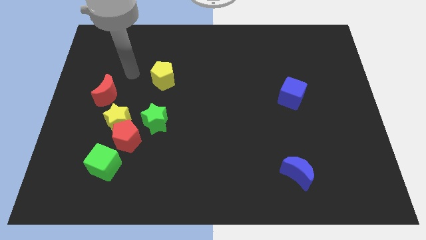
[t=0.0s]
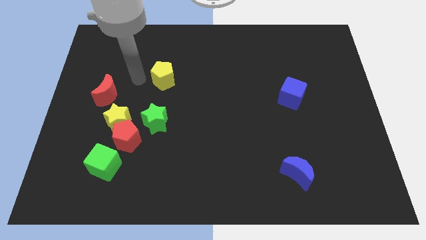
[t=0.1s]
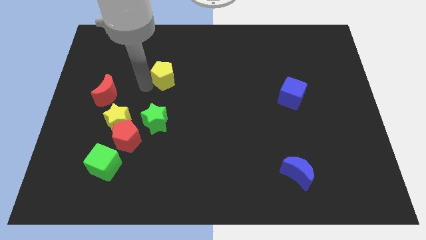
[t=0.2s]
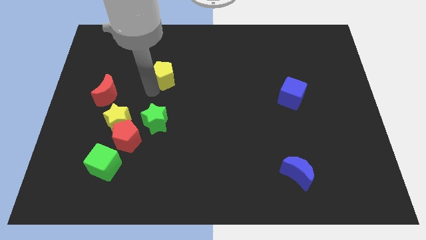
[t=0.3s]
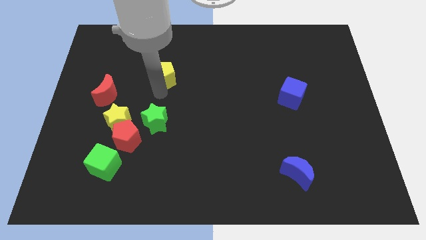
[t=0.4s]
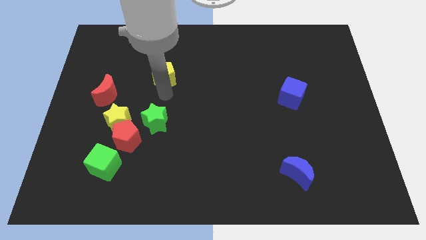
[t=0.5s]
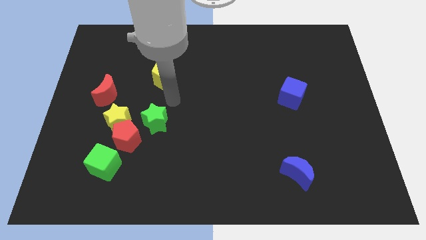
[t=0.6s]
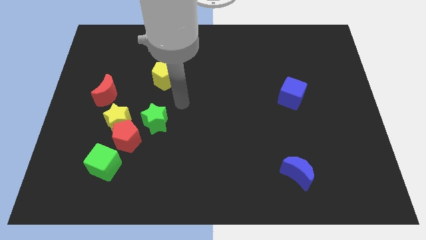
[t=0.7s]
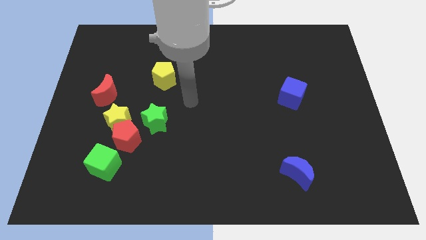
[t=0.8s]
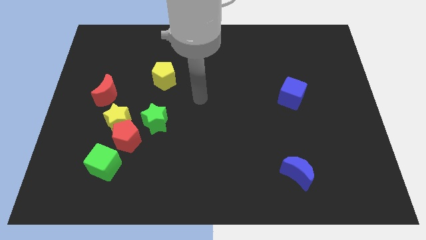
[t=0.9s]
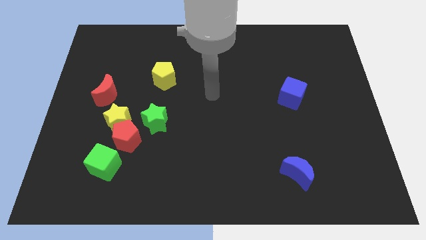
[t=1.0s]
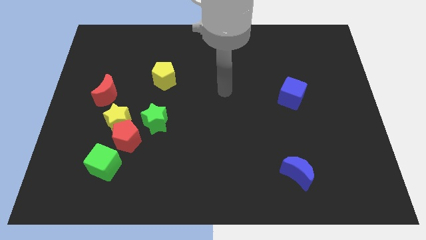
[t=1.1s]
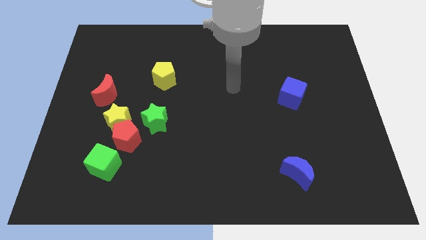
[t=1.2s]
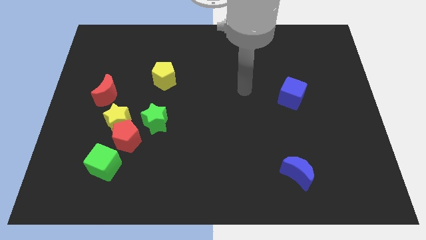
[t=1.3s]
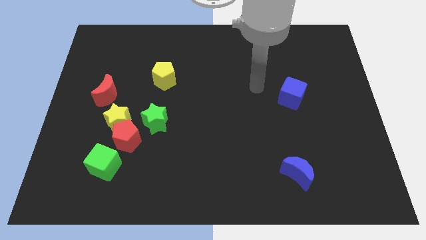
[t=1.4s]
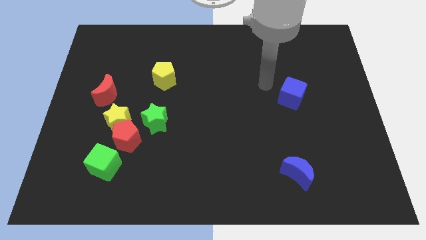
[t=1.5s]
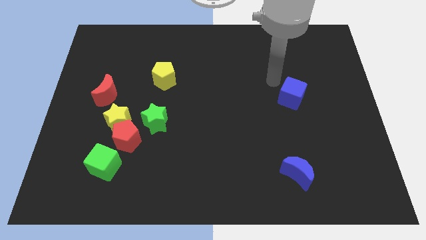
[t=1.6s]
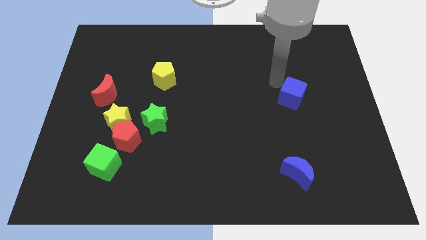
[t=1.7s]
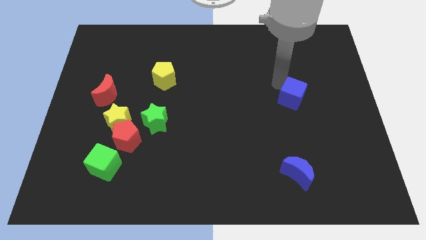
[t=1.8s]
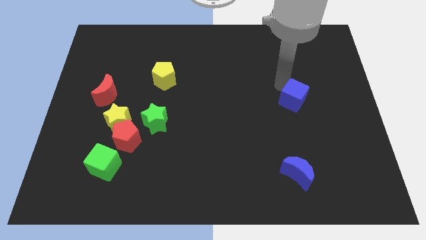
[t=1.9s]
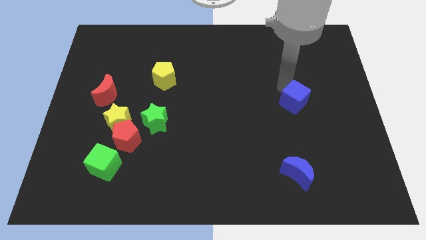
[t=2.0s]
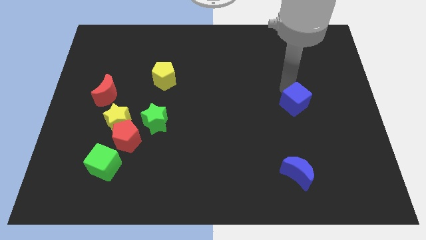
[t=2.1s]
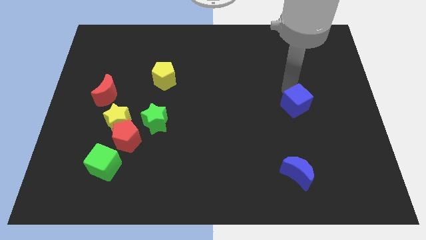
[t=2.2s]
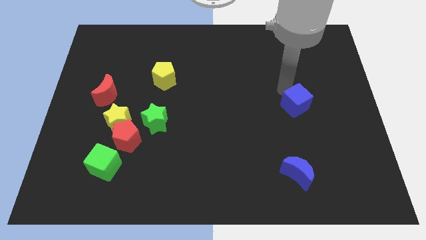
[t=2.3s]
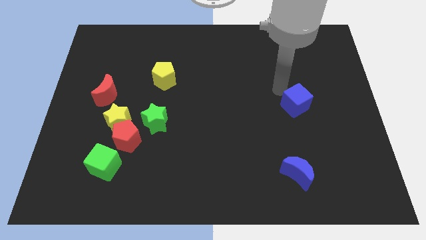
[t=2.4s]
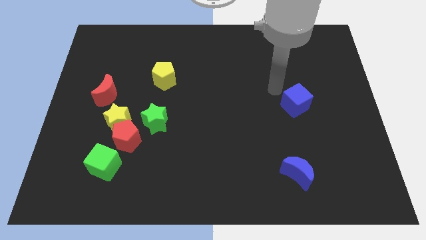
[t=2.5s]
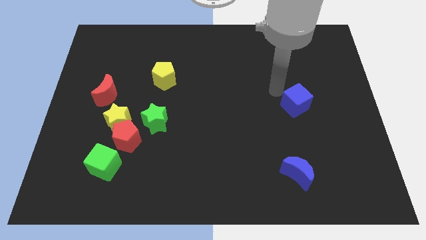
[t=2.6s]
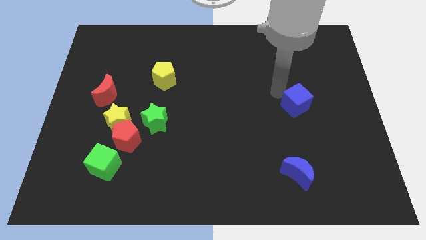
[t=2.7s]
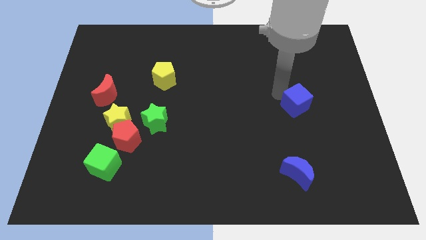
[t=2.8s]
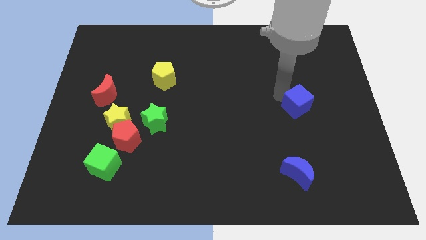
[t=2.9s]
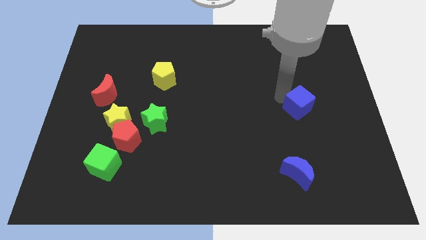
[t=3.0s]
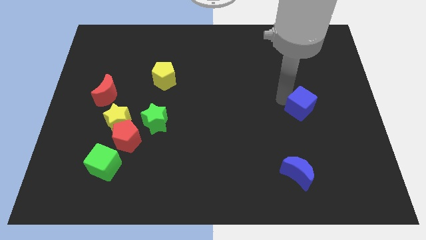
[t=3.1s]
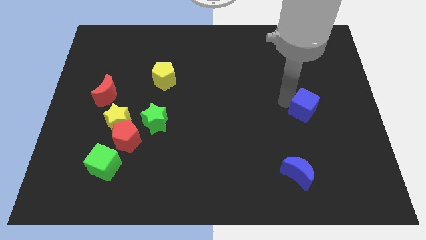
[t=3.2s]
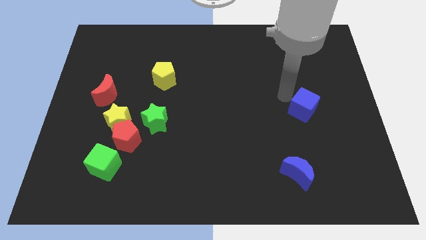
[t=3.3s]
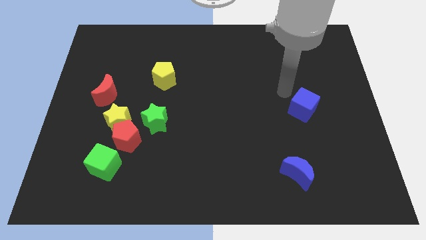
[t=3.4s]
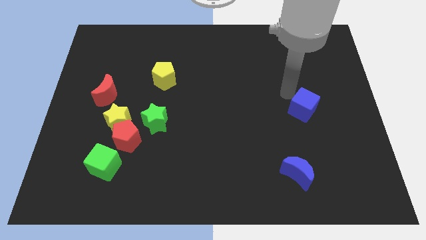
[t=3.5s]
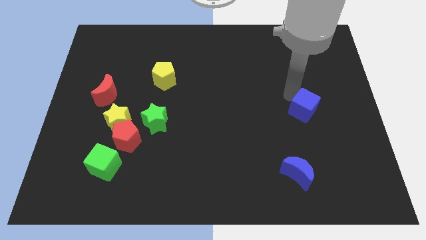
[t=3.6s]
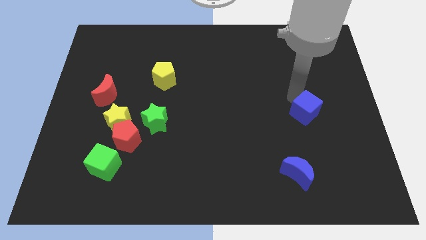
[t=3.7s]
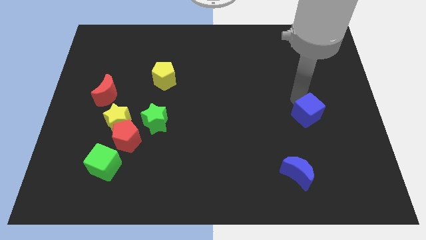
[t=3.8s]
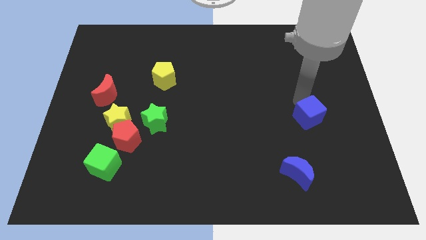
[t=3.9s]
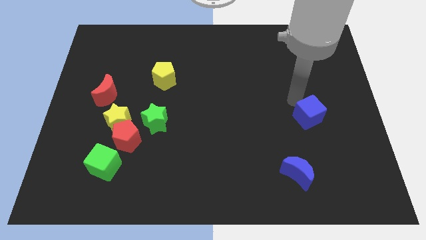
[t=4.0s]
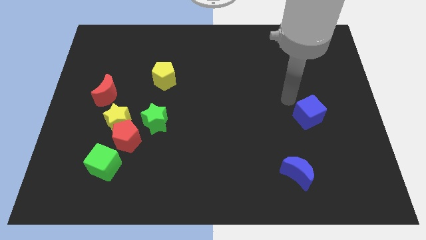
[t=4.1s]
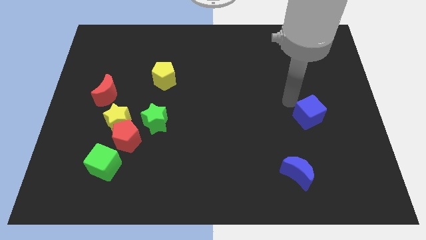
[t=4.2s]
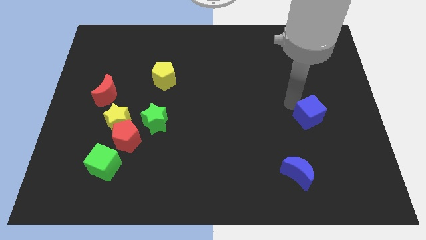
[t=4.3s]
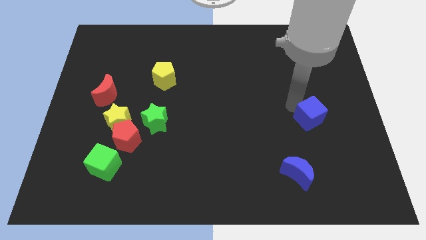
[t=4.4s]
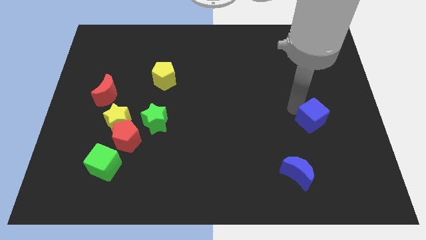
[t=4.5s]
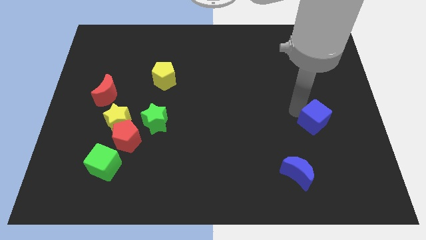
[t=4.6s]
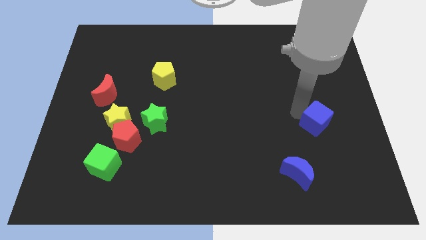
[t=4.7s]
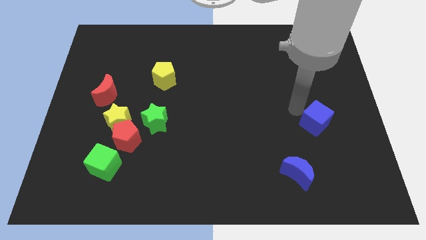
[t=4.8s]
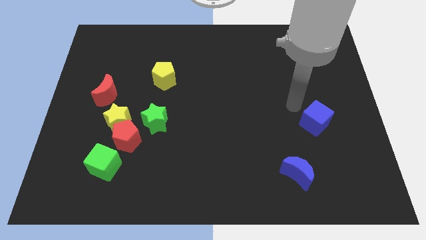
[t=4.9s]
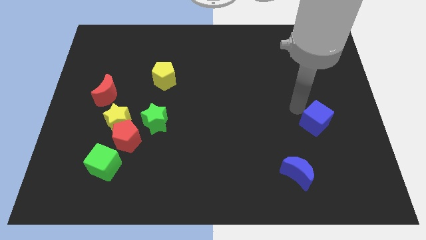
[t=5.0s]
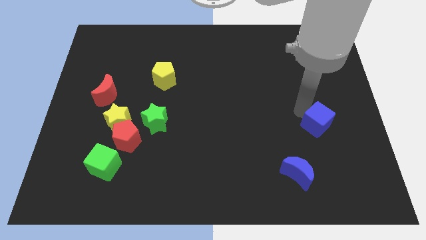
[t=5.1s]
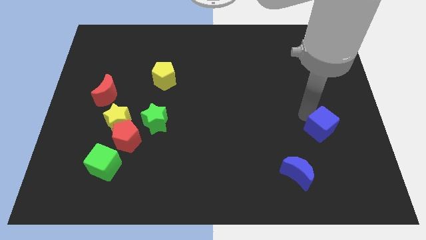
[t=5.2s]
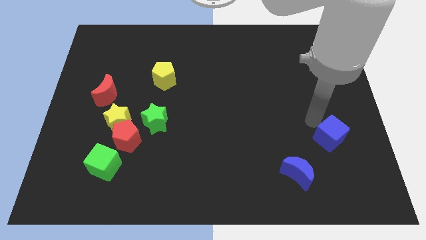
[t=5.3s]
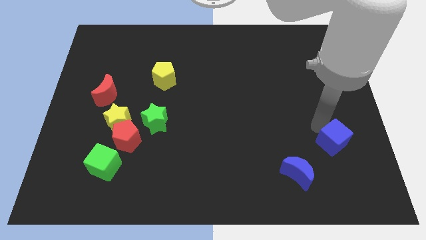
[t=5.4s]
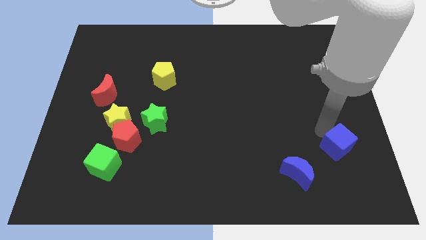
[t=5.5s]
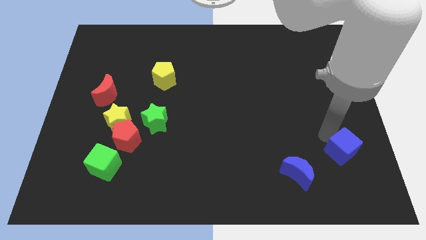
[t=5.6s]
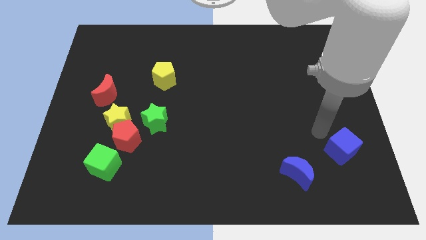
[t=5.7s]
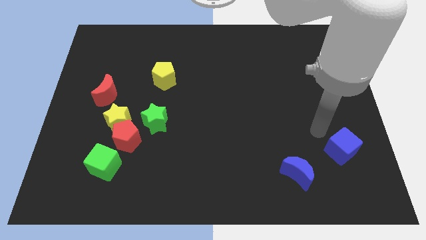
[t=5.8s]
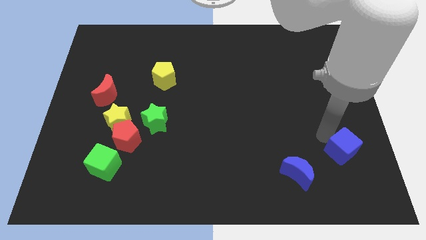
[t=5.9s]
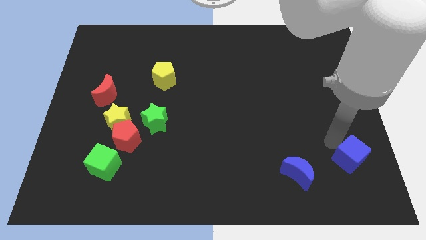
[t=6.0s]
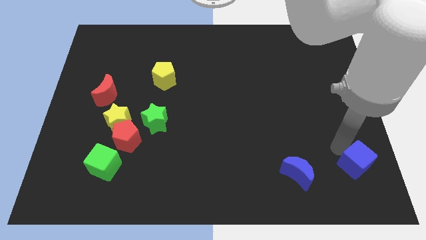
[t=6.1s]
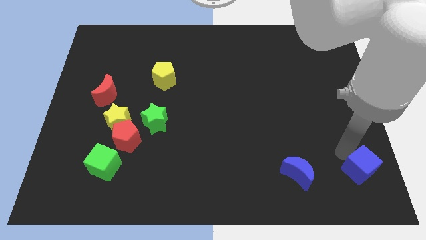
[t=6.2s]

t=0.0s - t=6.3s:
slide the blue cube to the bottom right

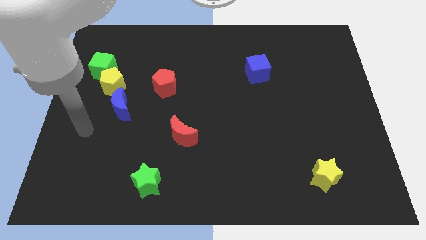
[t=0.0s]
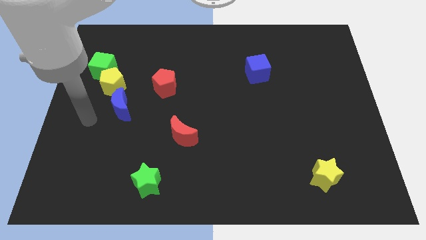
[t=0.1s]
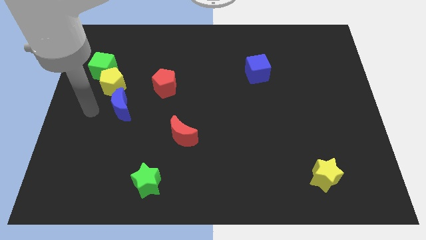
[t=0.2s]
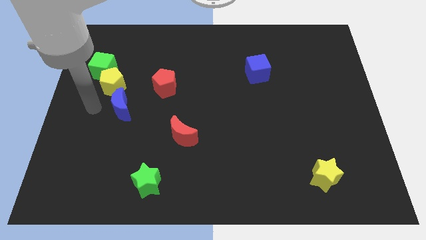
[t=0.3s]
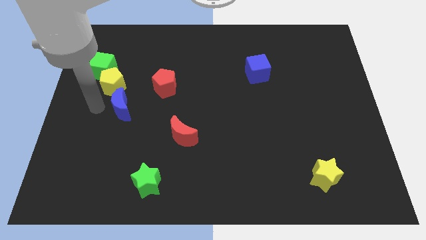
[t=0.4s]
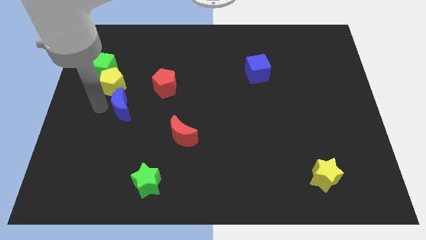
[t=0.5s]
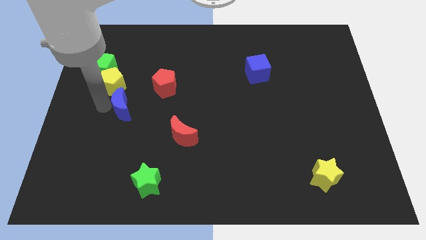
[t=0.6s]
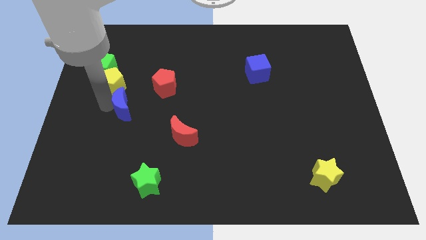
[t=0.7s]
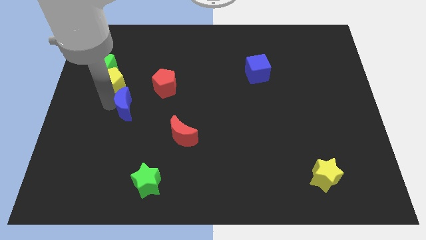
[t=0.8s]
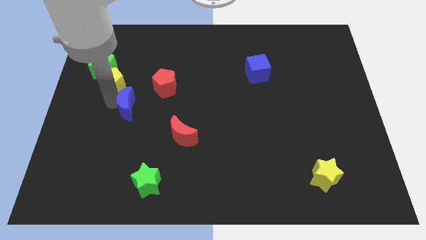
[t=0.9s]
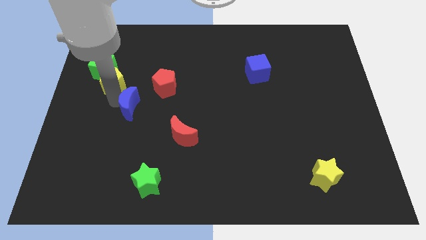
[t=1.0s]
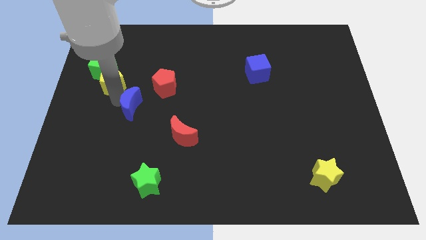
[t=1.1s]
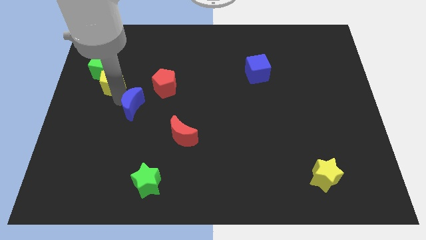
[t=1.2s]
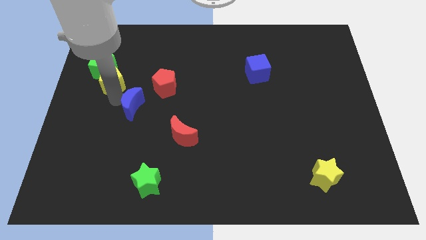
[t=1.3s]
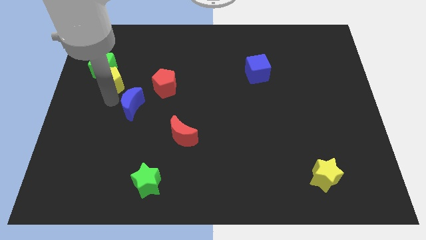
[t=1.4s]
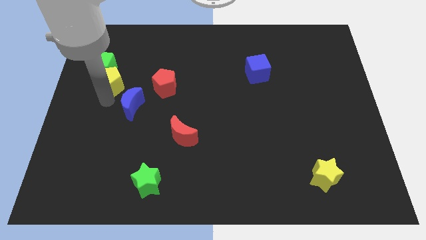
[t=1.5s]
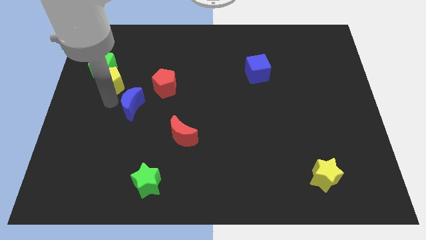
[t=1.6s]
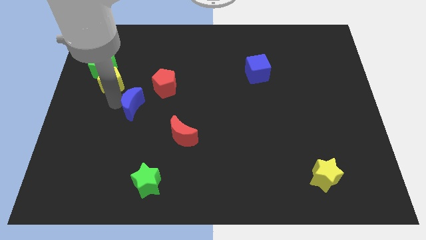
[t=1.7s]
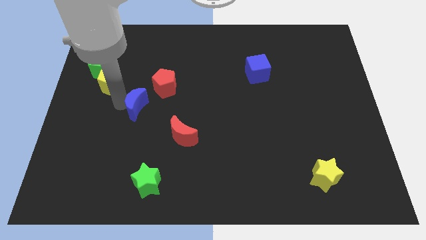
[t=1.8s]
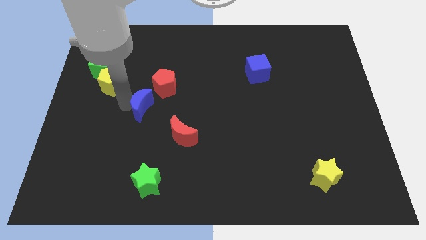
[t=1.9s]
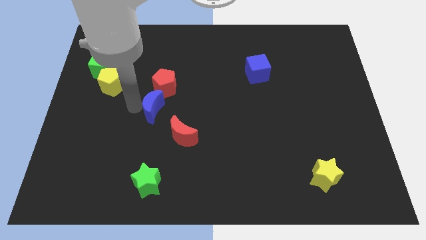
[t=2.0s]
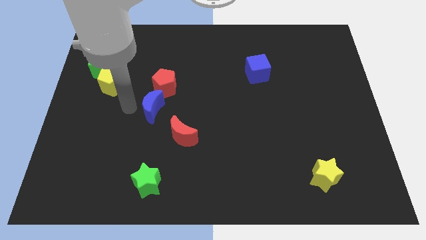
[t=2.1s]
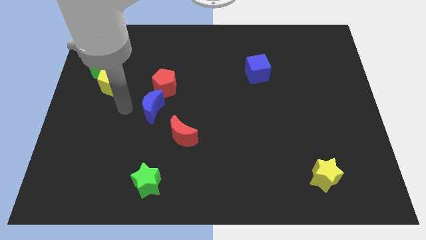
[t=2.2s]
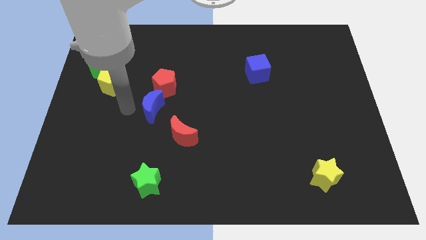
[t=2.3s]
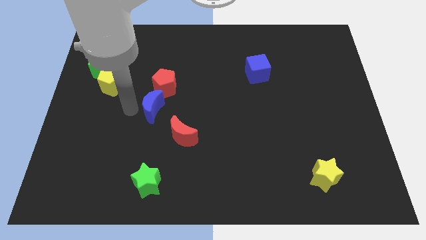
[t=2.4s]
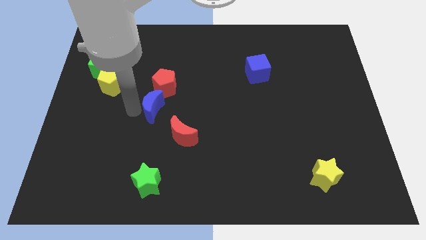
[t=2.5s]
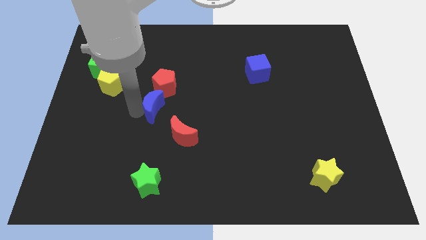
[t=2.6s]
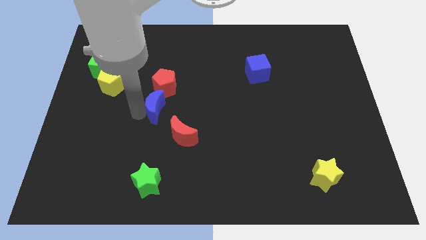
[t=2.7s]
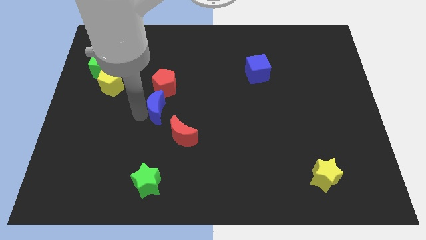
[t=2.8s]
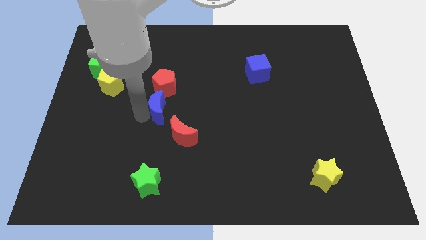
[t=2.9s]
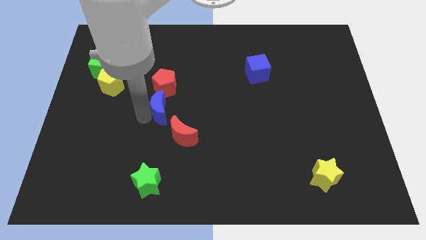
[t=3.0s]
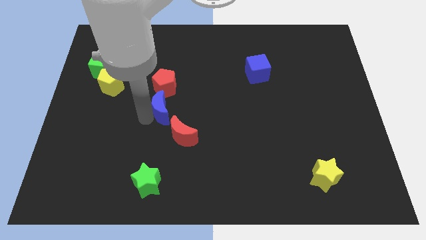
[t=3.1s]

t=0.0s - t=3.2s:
move the blue moon to the center of the board
